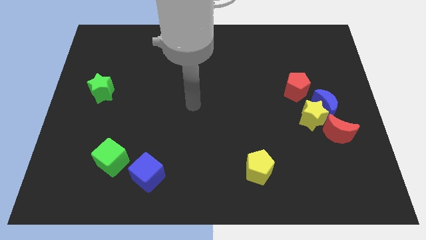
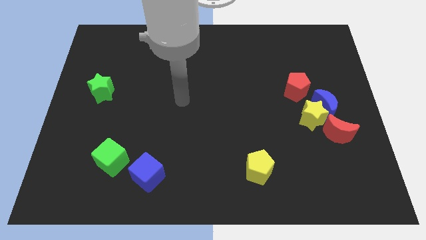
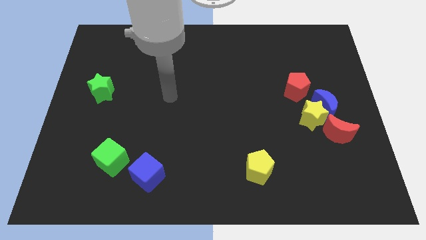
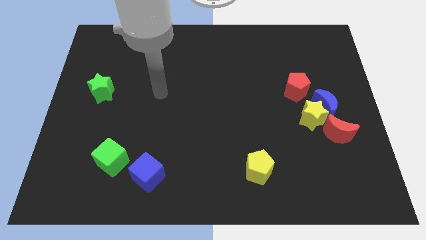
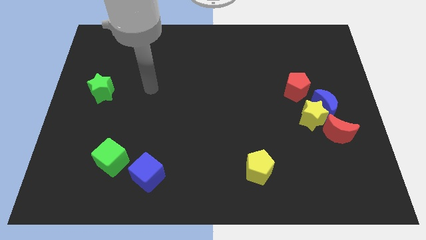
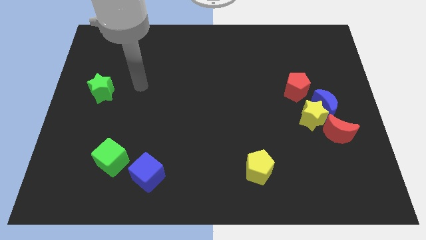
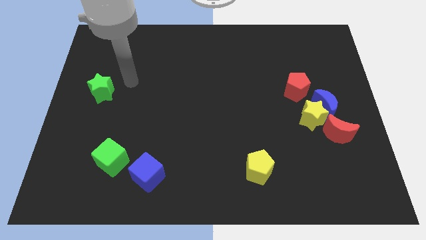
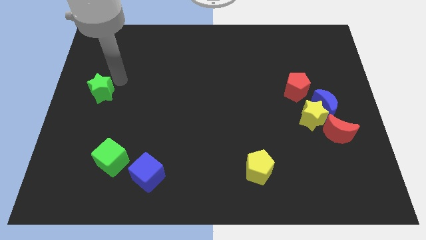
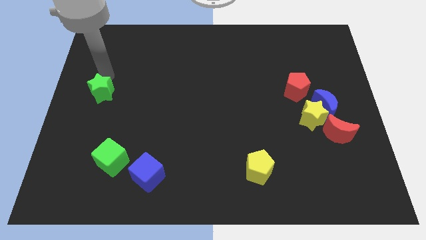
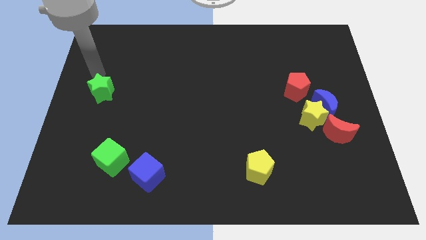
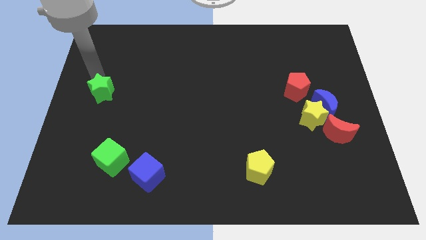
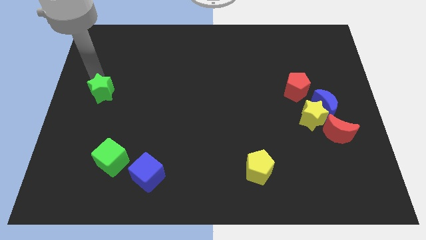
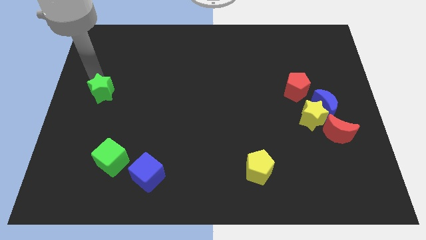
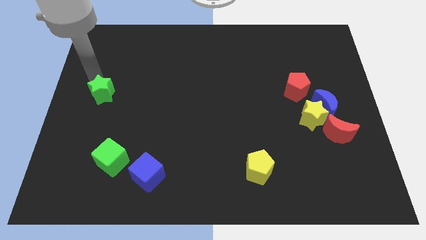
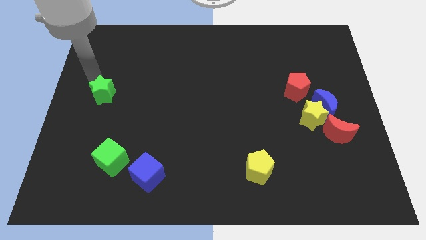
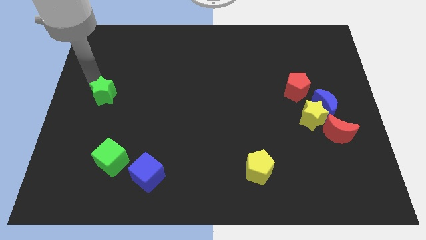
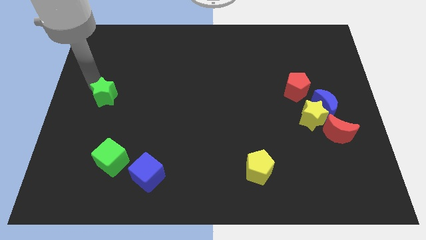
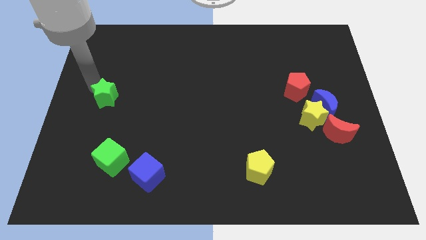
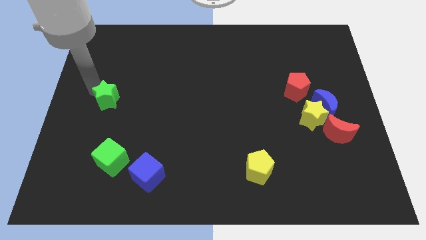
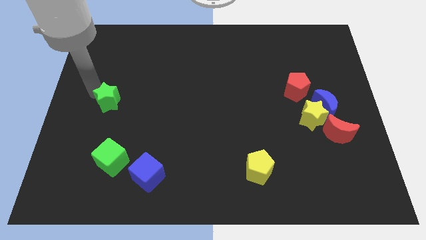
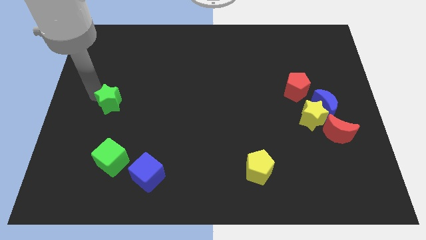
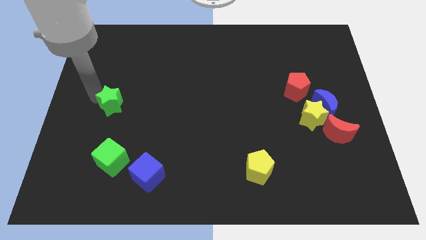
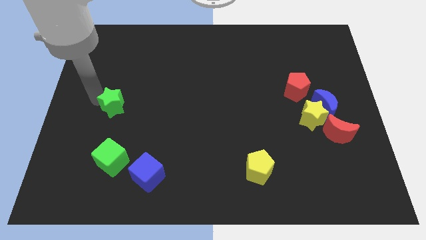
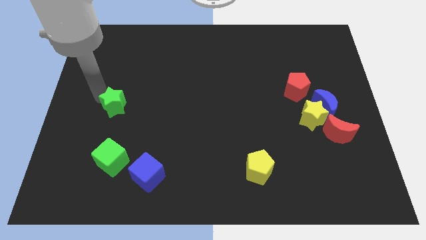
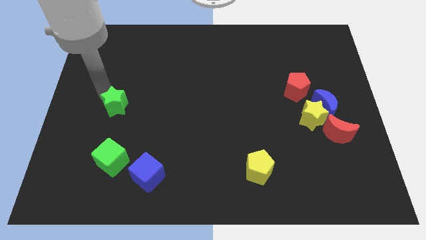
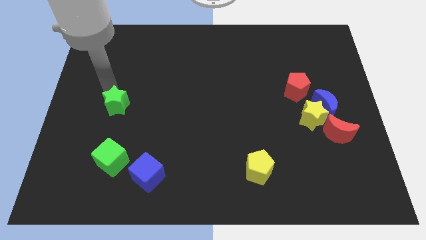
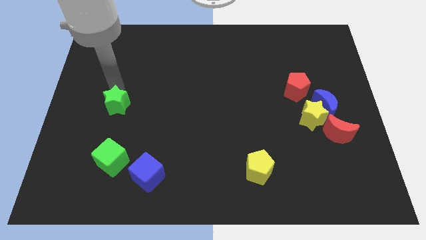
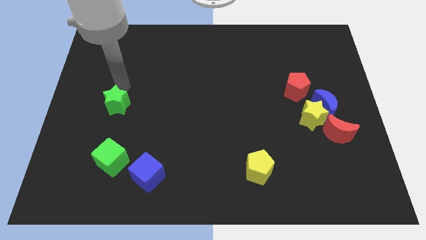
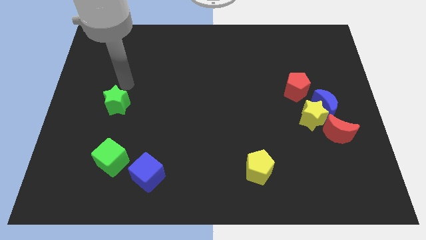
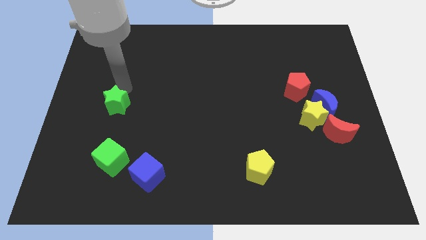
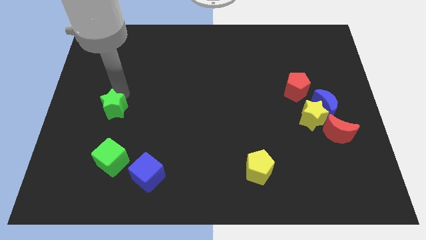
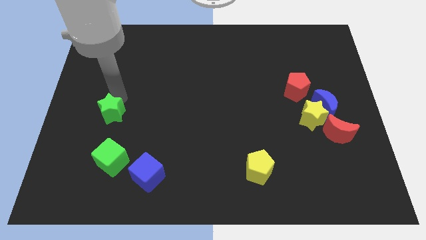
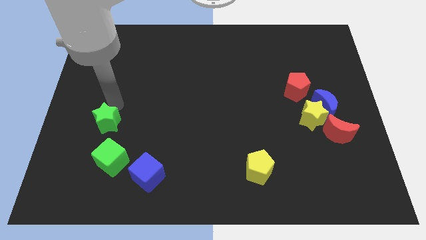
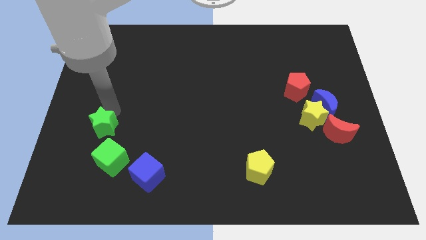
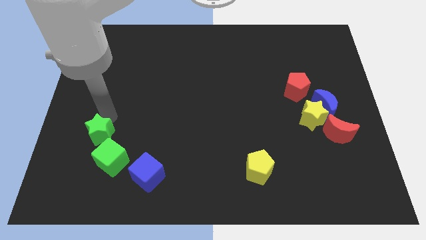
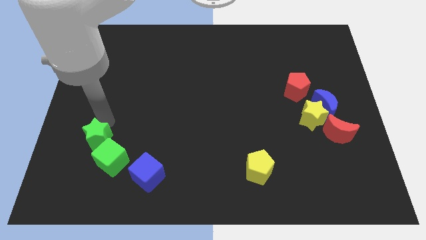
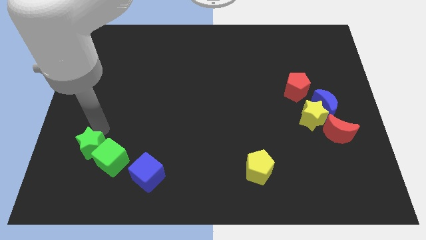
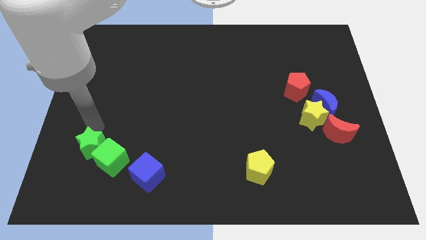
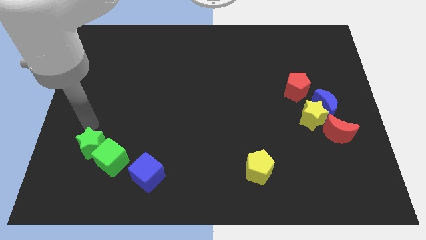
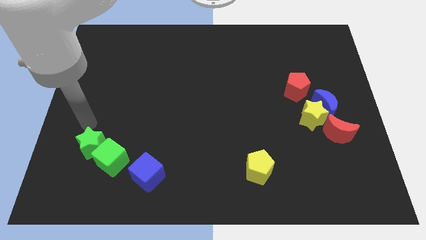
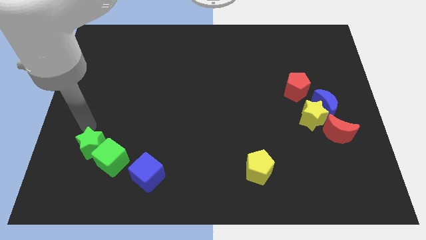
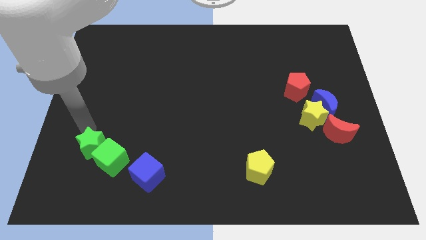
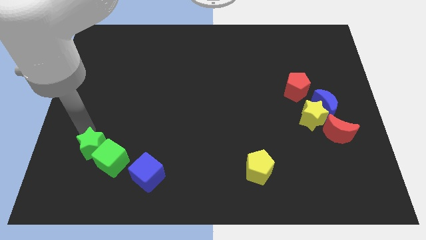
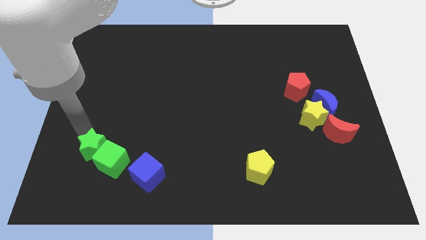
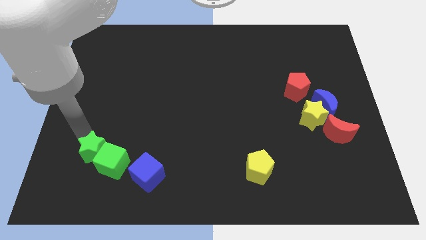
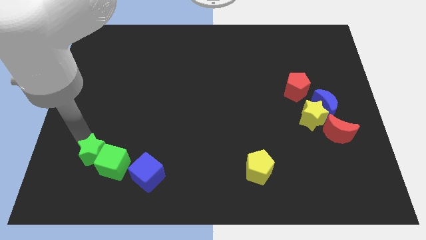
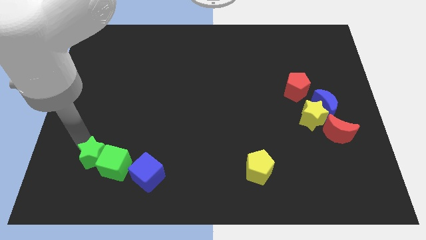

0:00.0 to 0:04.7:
move the green star to the left side of the blue cube

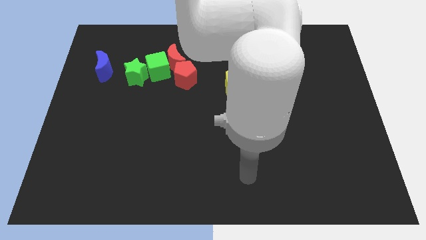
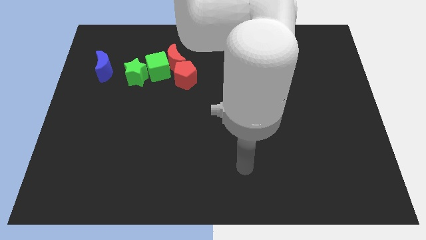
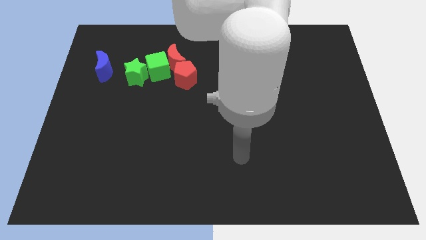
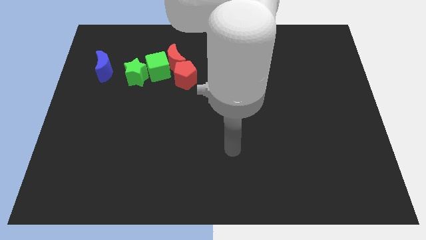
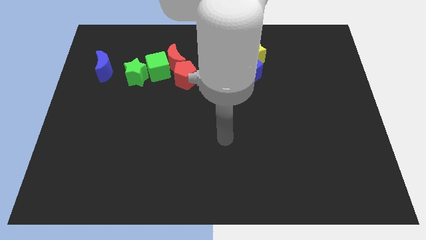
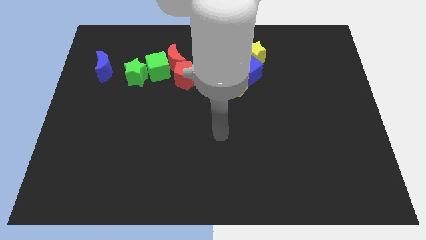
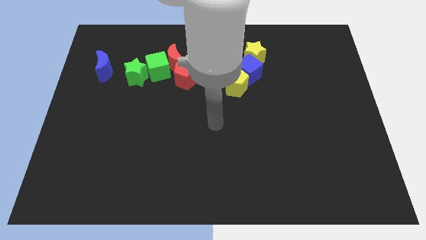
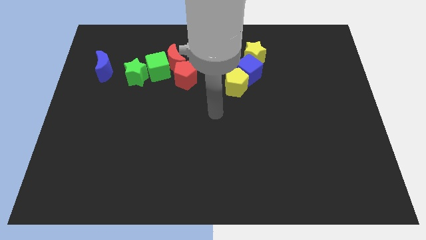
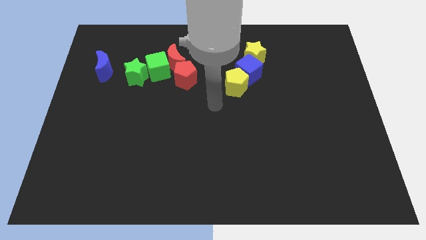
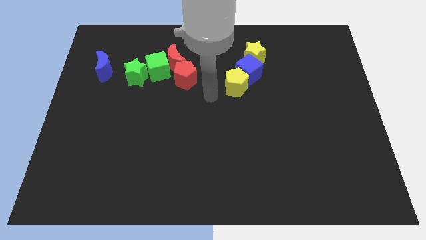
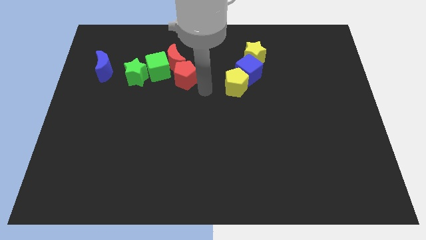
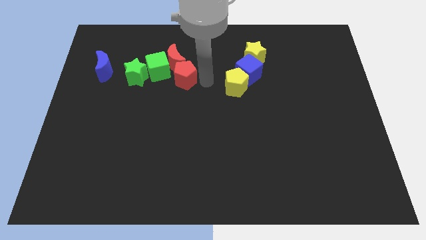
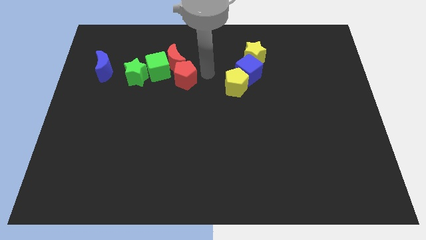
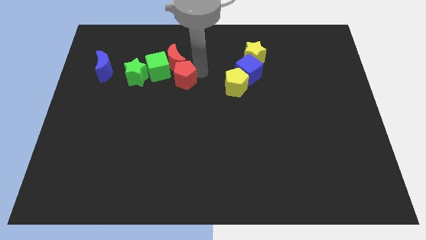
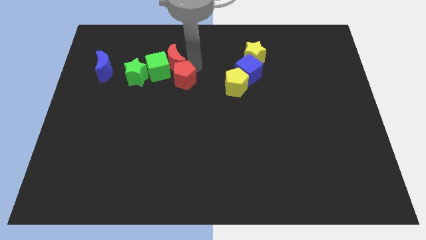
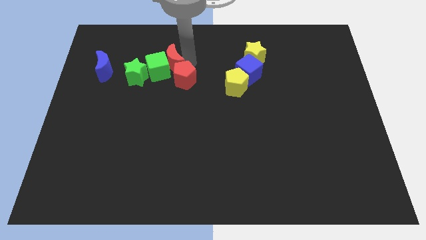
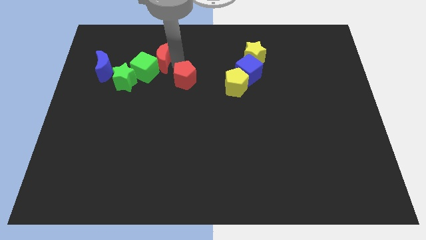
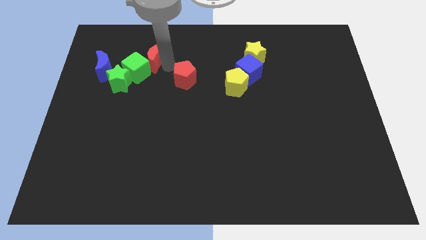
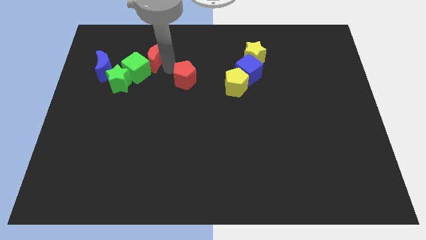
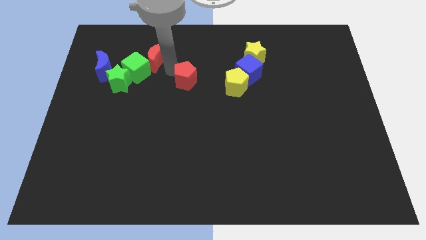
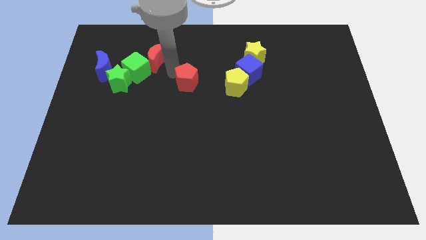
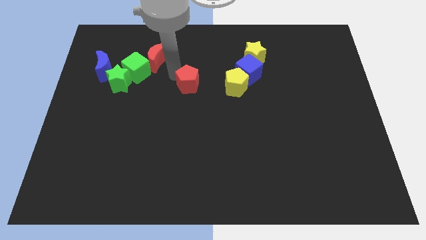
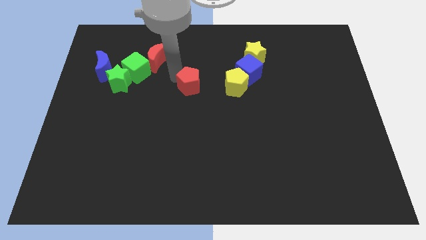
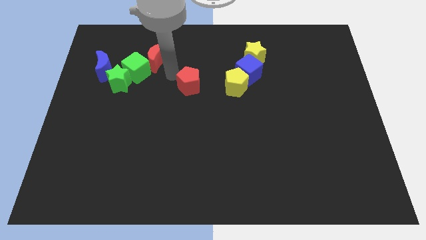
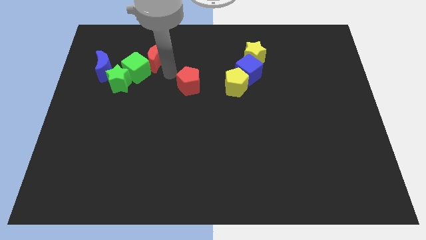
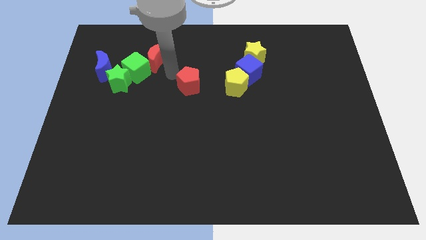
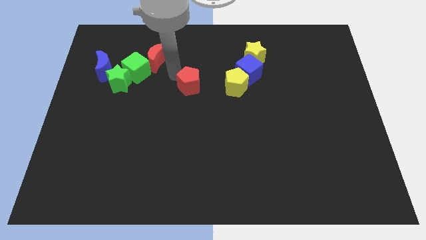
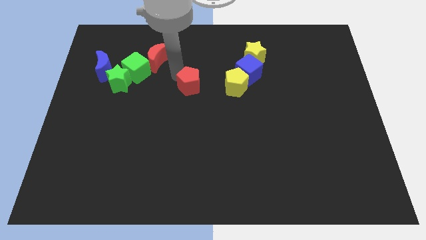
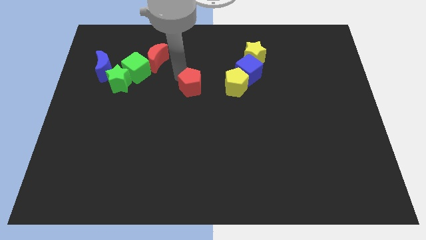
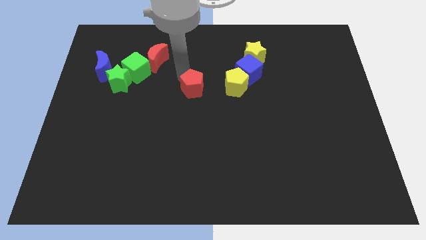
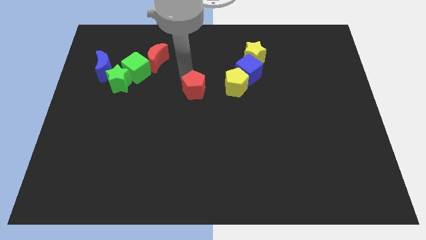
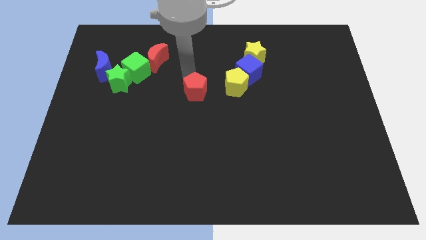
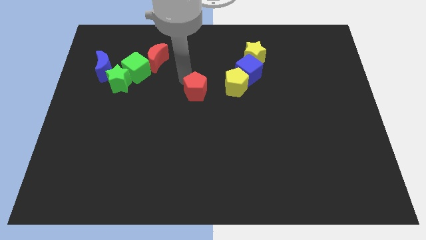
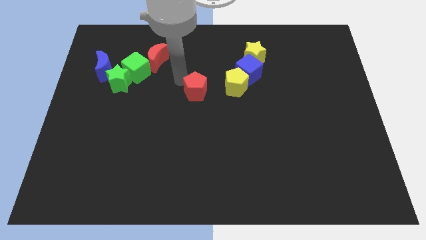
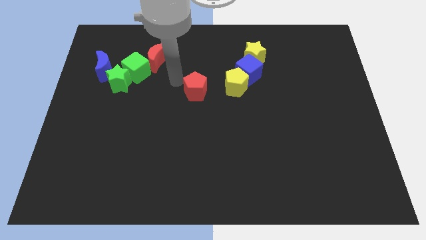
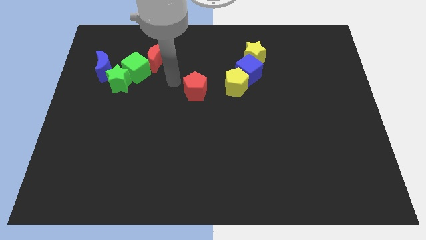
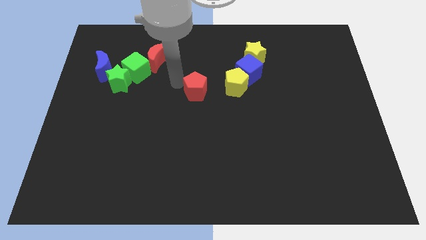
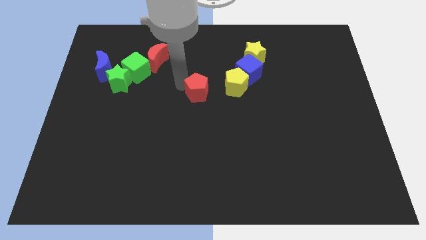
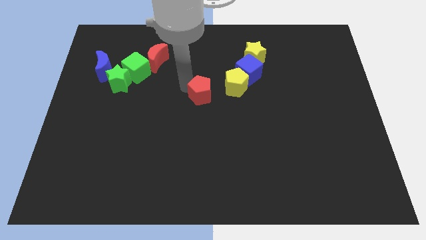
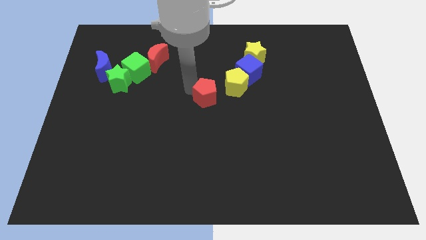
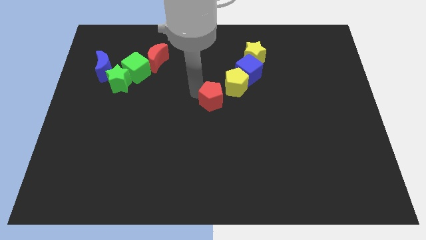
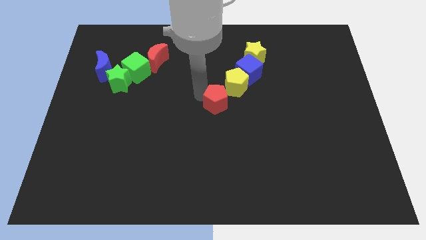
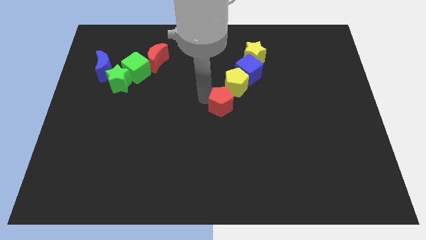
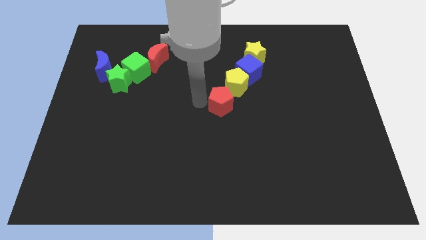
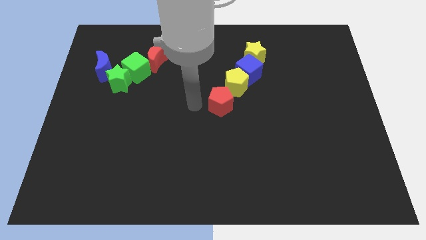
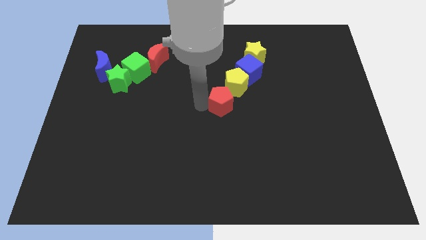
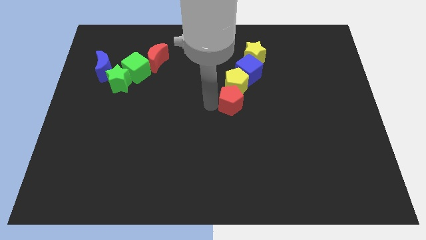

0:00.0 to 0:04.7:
slide the red pentagon to the bottom right side of the yellow pentagon
